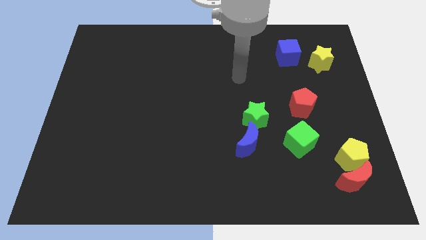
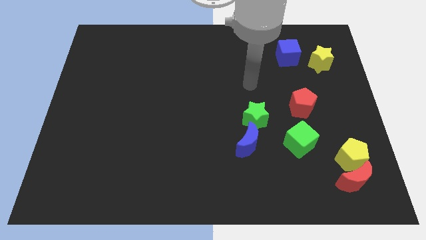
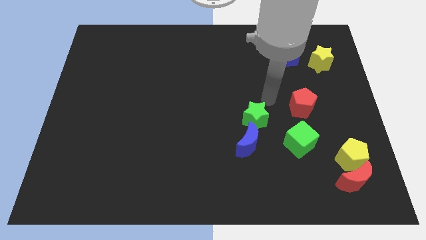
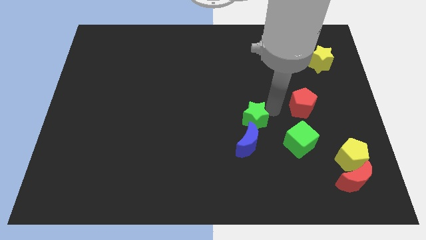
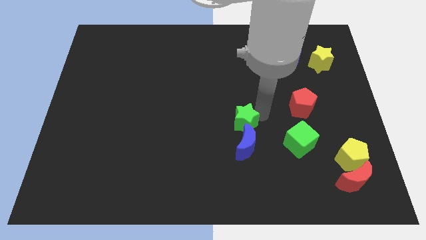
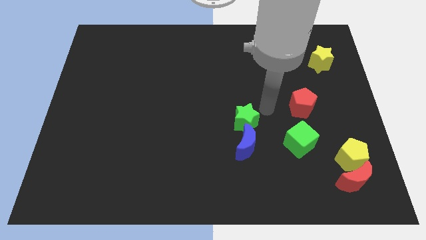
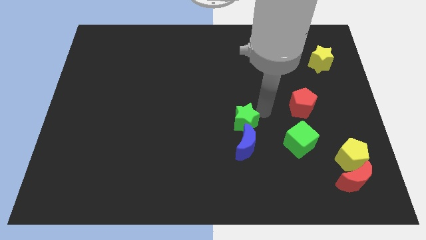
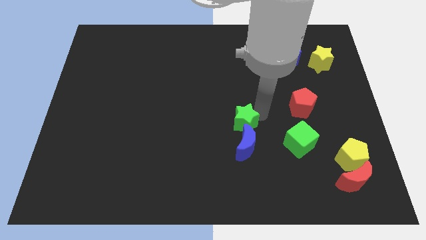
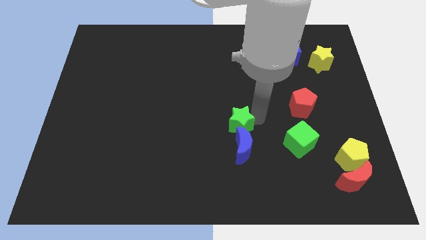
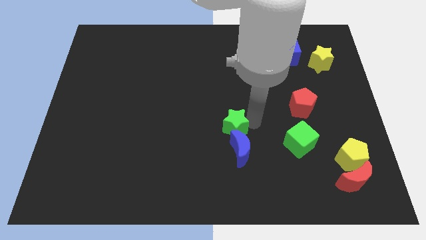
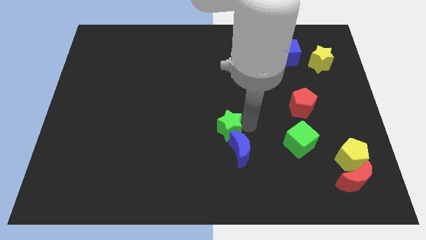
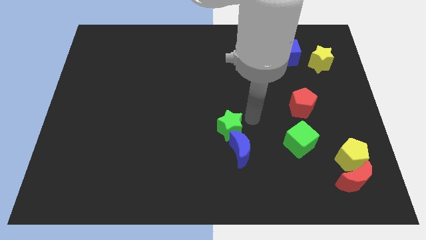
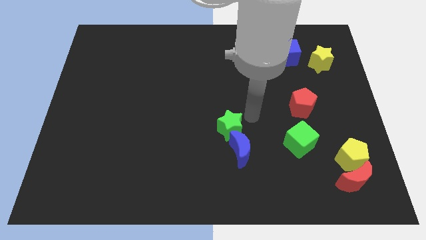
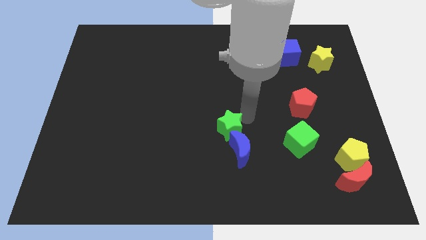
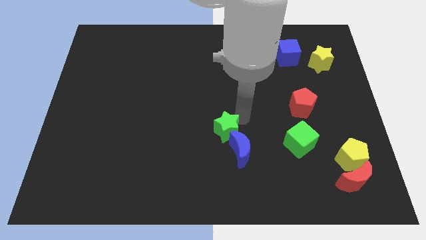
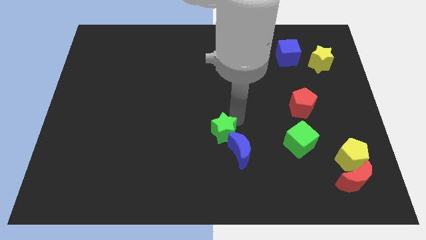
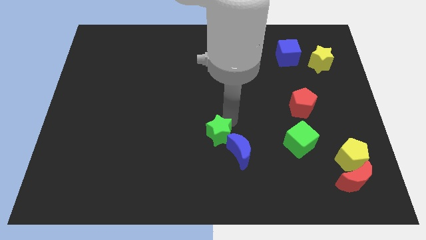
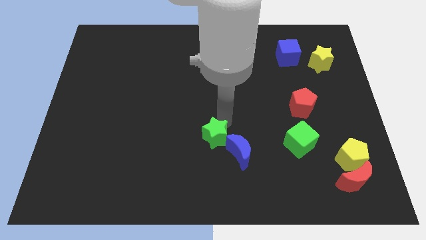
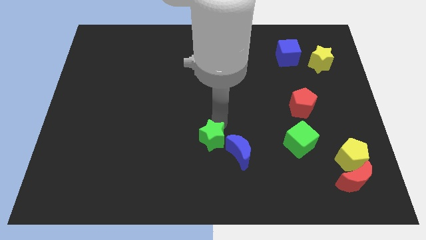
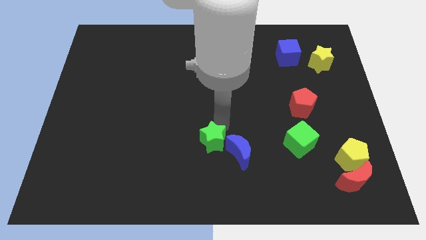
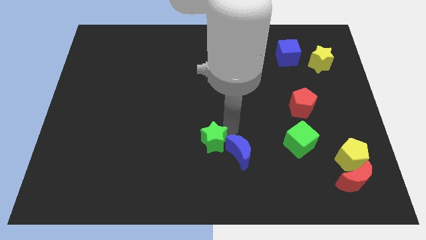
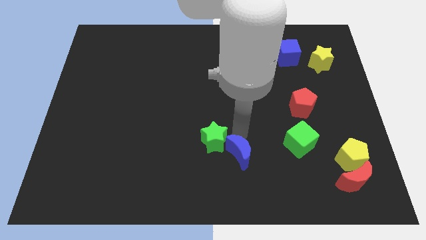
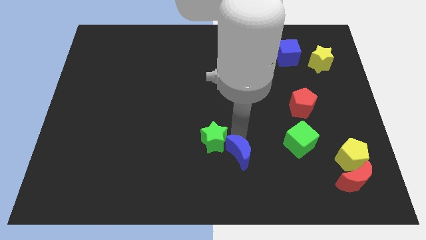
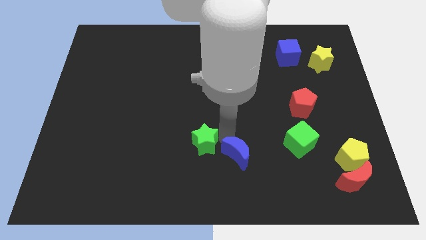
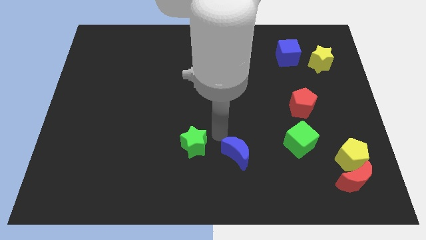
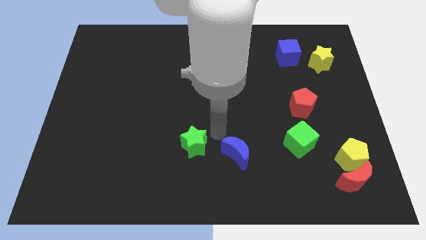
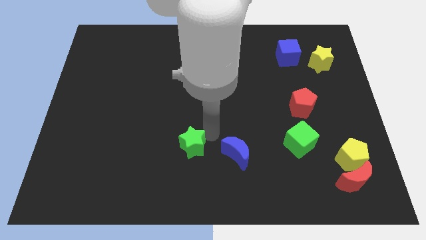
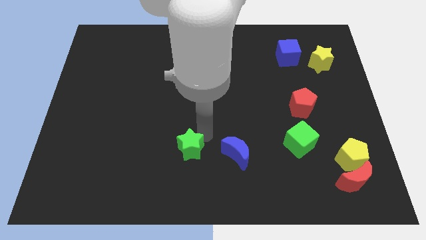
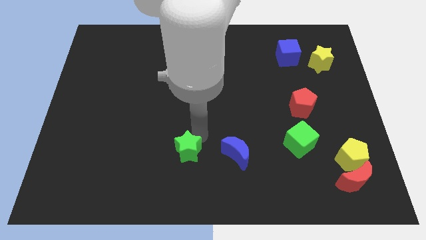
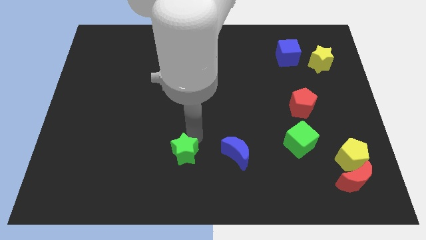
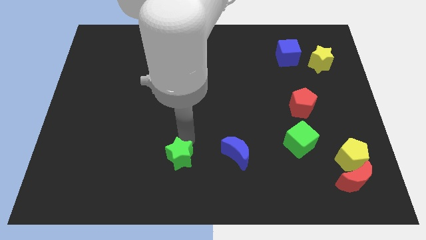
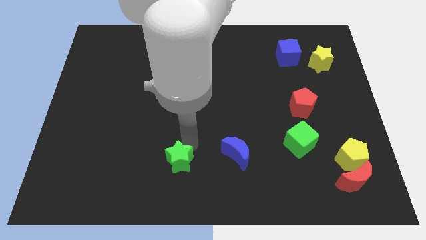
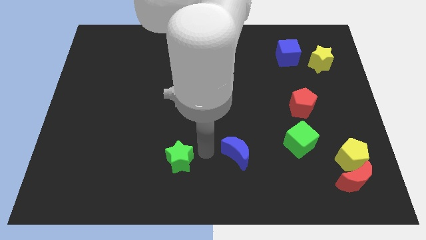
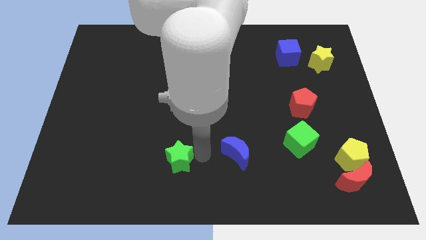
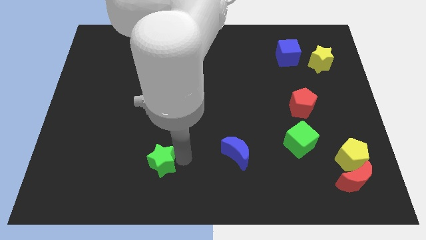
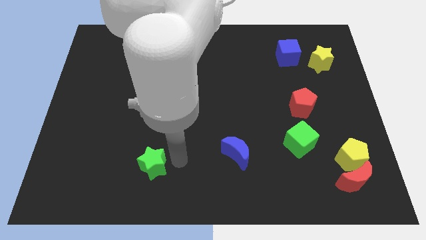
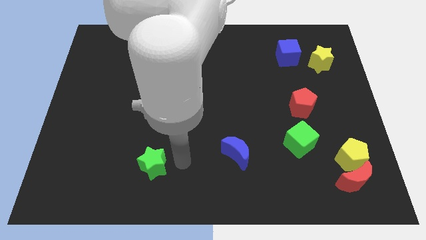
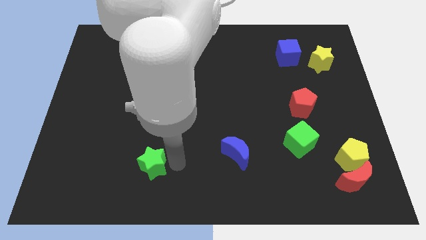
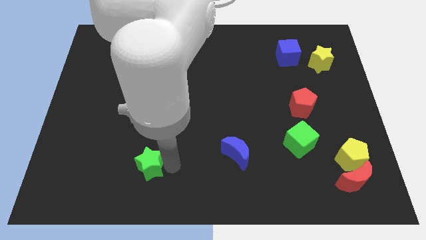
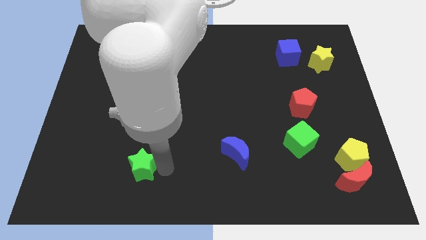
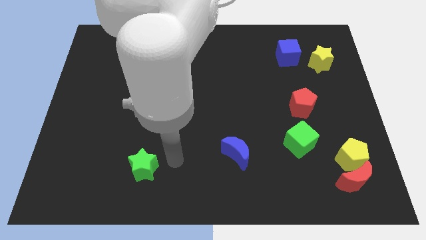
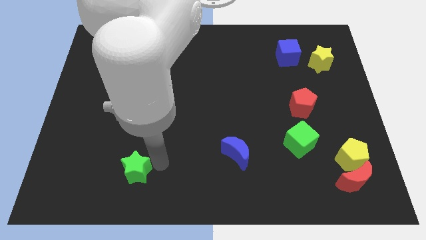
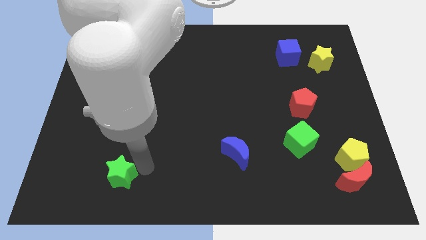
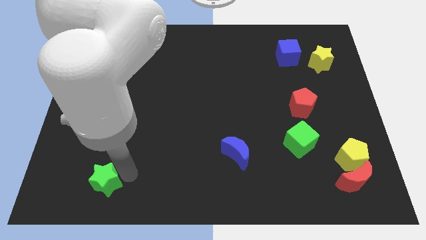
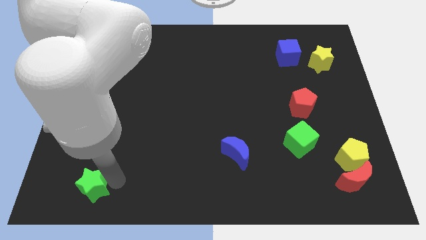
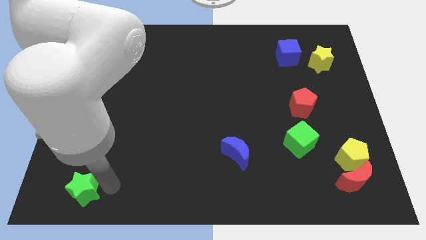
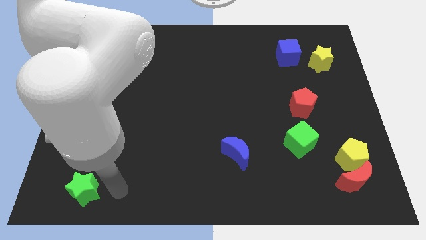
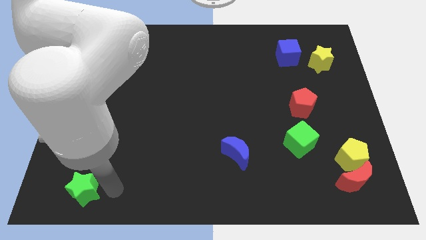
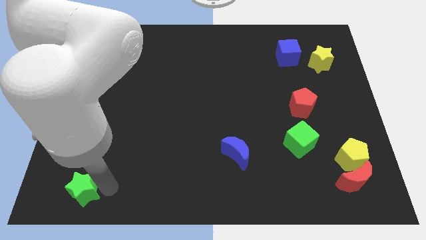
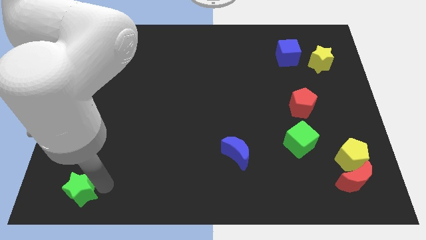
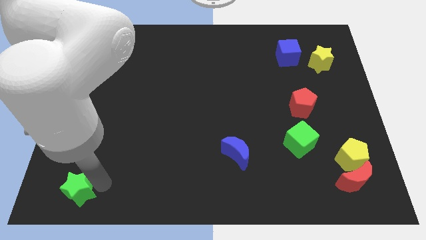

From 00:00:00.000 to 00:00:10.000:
push the green star to the lower left corner
